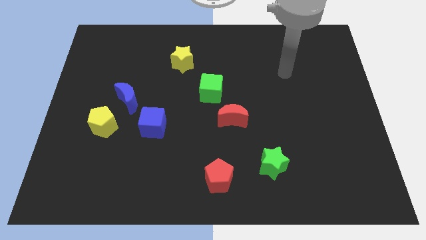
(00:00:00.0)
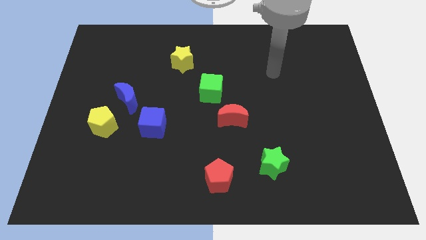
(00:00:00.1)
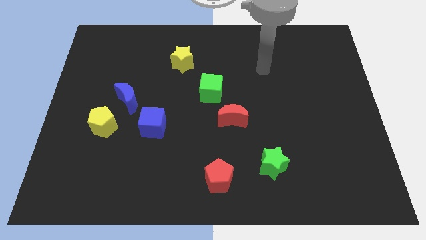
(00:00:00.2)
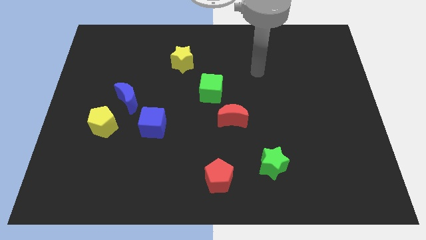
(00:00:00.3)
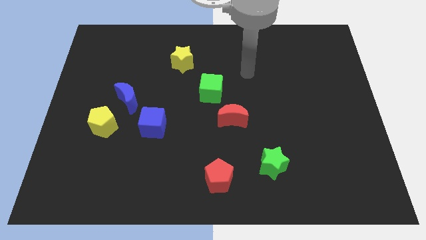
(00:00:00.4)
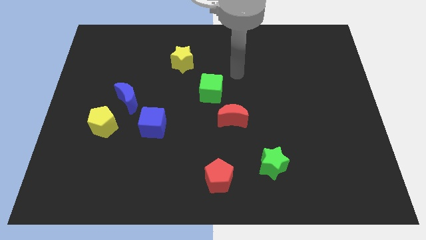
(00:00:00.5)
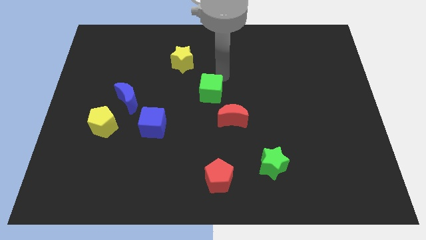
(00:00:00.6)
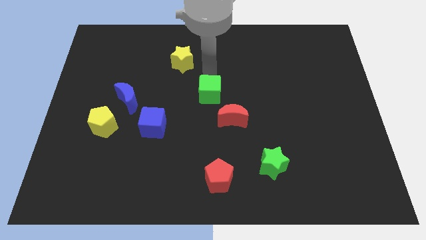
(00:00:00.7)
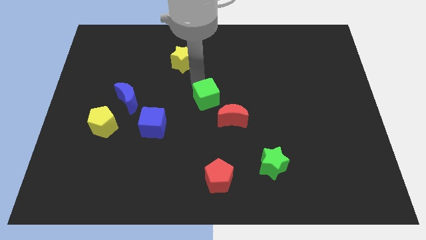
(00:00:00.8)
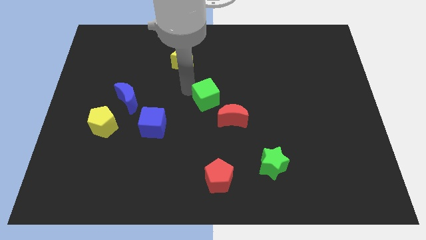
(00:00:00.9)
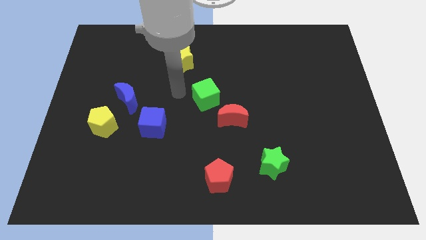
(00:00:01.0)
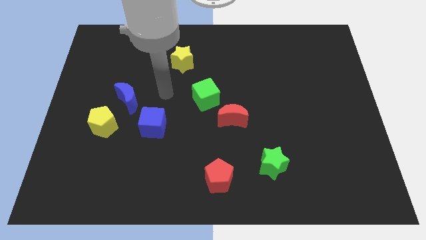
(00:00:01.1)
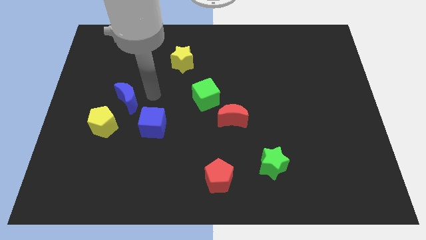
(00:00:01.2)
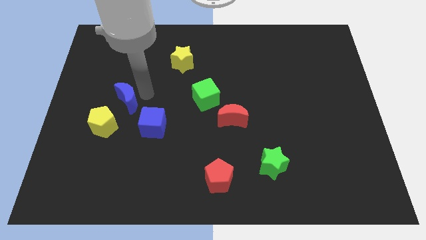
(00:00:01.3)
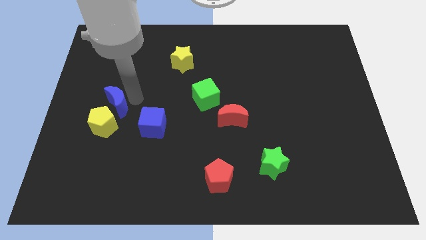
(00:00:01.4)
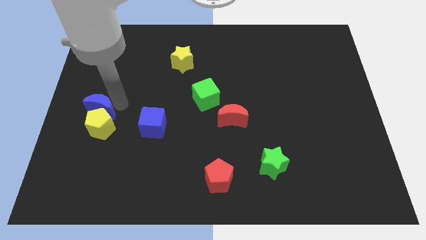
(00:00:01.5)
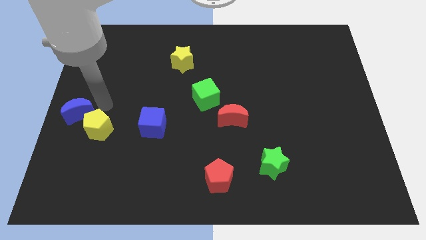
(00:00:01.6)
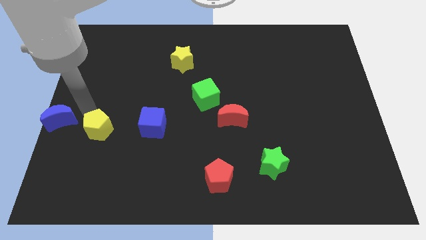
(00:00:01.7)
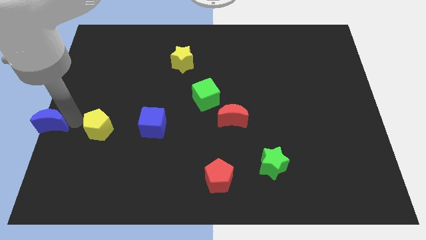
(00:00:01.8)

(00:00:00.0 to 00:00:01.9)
move the yellow pentagon away from the blue moon

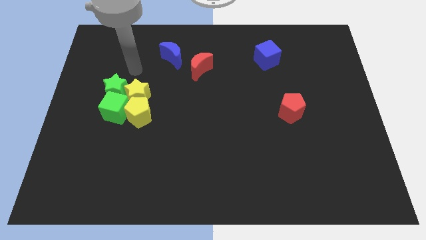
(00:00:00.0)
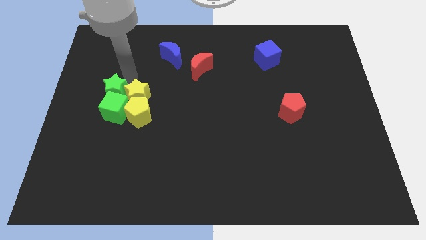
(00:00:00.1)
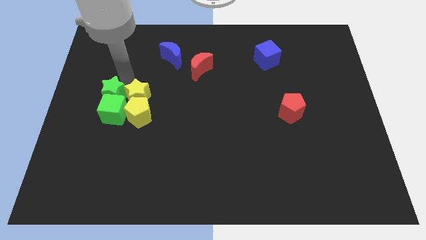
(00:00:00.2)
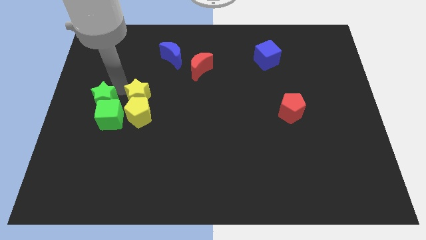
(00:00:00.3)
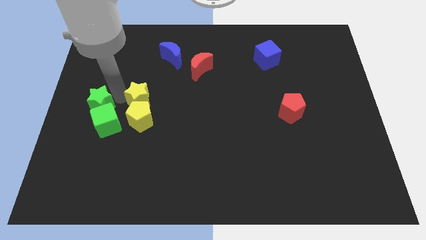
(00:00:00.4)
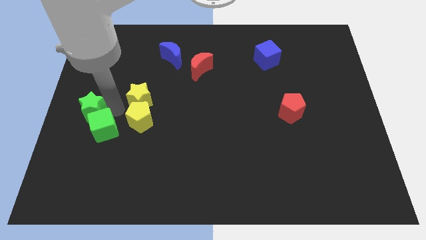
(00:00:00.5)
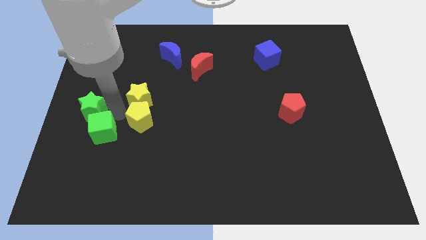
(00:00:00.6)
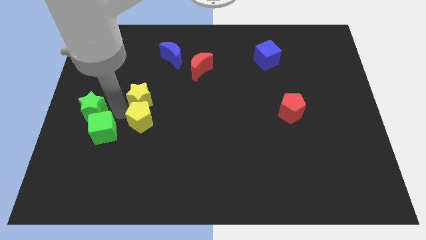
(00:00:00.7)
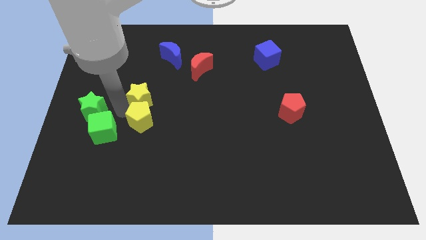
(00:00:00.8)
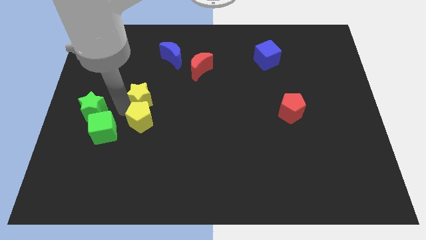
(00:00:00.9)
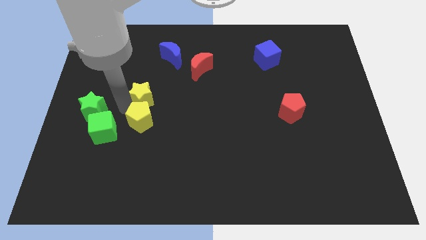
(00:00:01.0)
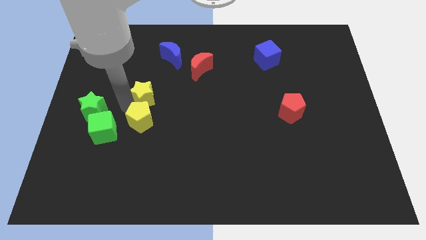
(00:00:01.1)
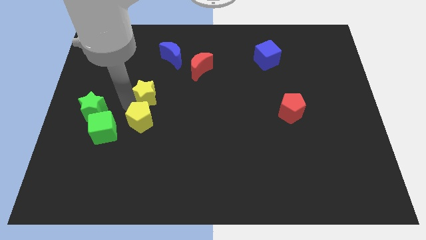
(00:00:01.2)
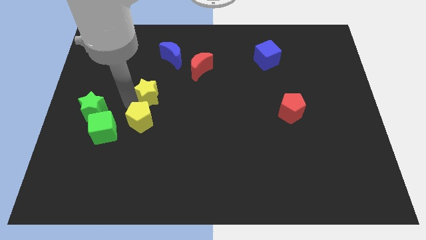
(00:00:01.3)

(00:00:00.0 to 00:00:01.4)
pull the yellow star apart from the clump

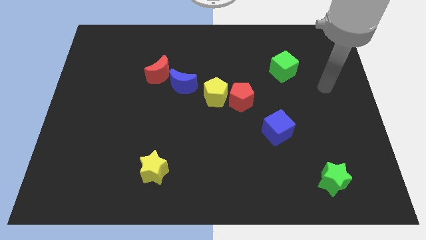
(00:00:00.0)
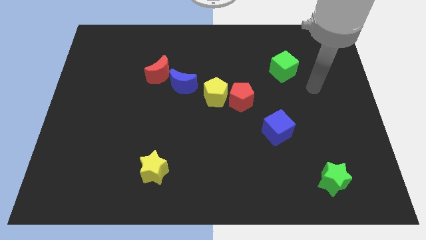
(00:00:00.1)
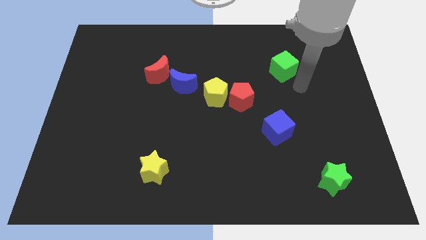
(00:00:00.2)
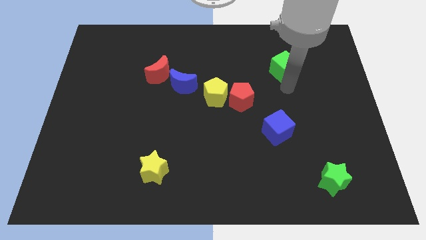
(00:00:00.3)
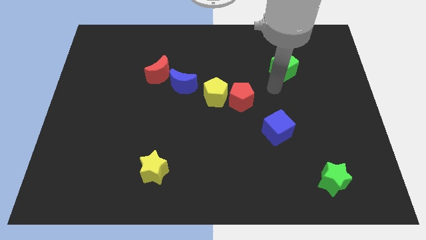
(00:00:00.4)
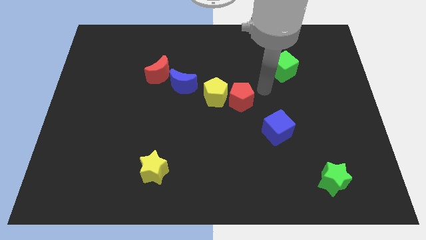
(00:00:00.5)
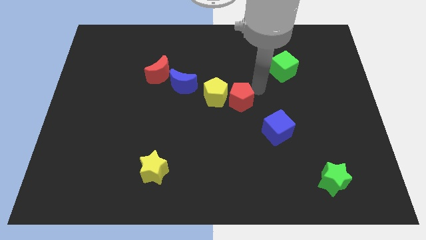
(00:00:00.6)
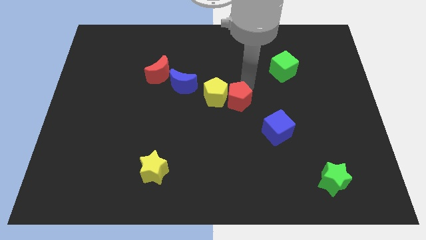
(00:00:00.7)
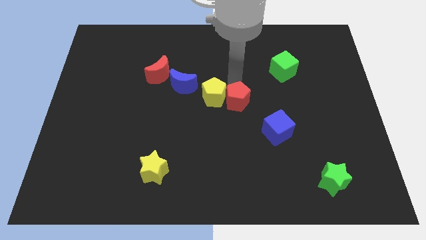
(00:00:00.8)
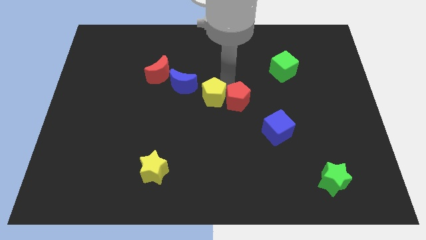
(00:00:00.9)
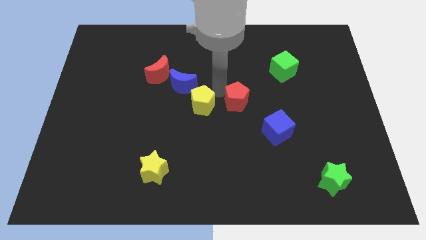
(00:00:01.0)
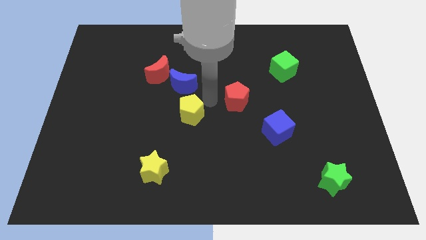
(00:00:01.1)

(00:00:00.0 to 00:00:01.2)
separate the red pentagon from the yellow pentagon

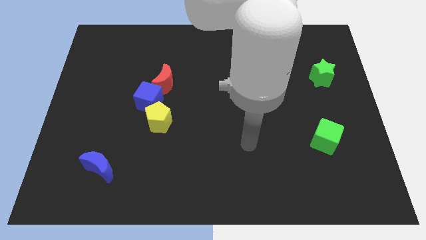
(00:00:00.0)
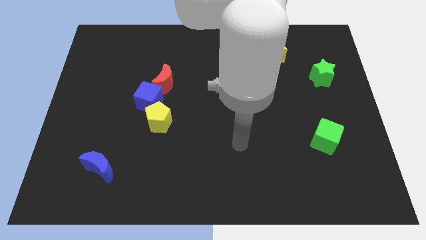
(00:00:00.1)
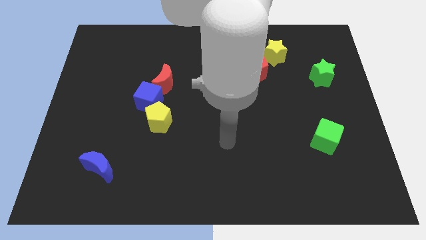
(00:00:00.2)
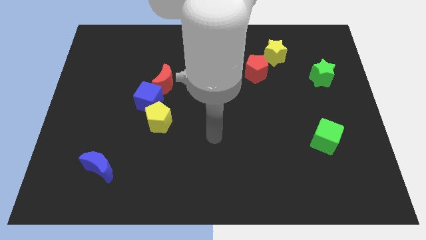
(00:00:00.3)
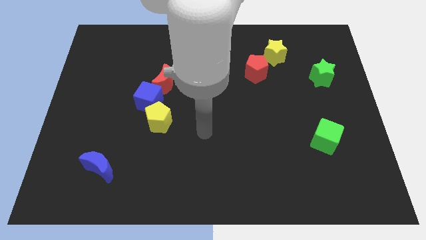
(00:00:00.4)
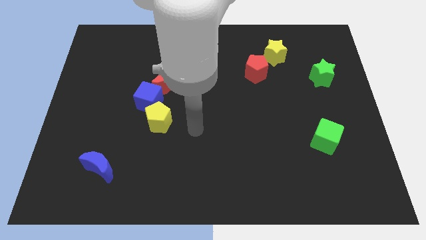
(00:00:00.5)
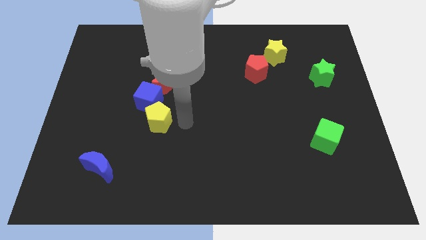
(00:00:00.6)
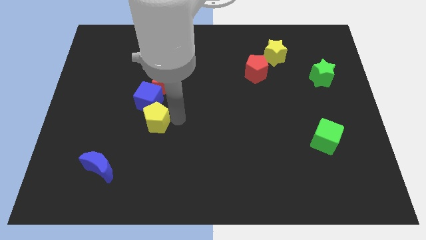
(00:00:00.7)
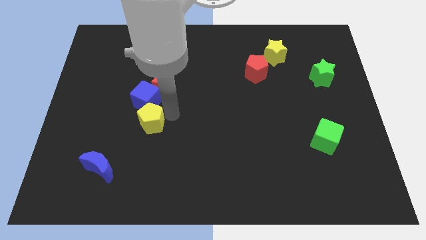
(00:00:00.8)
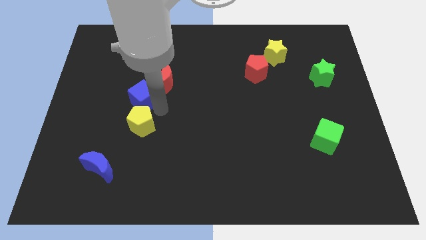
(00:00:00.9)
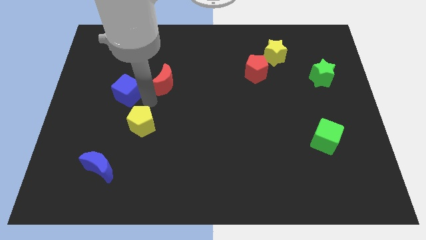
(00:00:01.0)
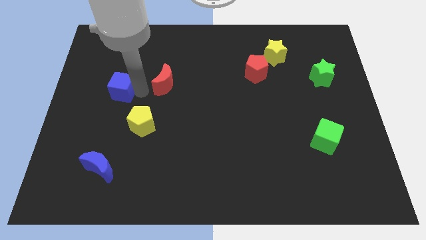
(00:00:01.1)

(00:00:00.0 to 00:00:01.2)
pull the red moon apart from the blue cube

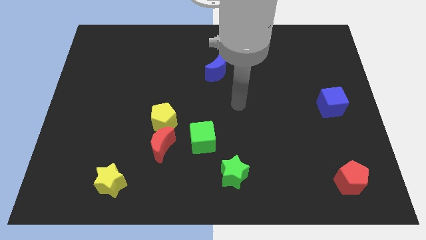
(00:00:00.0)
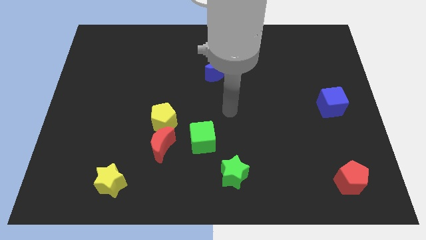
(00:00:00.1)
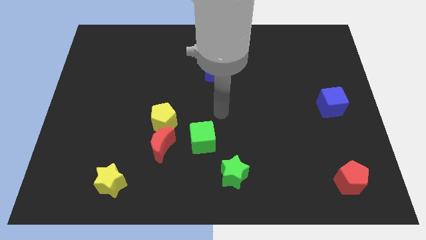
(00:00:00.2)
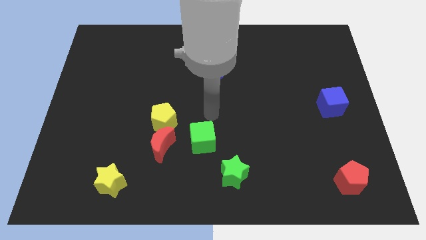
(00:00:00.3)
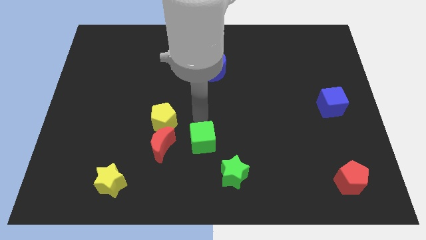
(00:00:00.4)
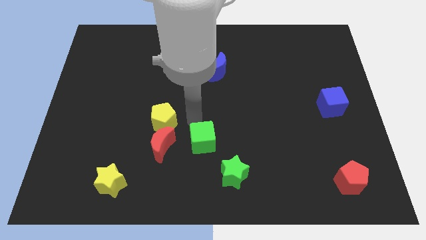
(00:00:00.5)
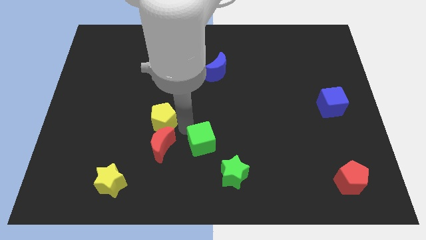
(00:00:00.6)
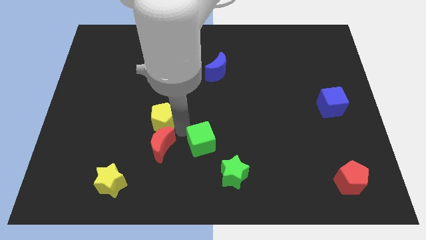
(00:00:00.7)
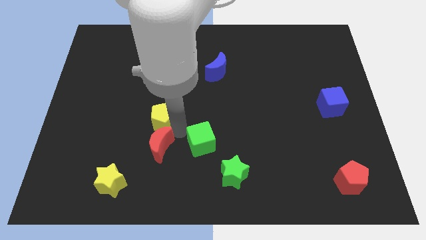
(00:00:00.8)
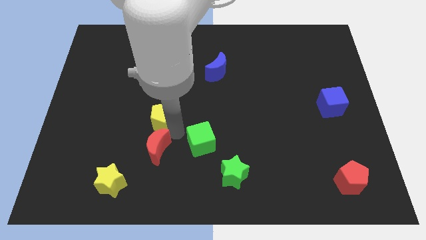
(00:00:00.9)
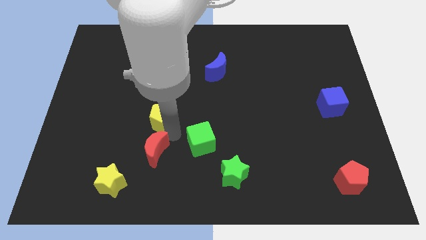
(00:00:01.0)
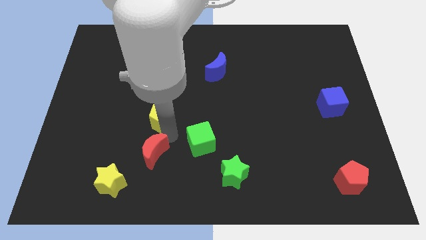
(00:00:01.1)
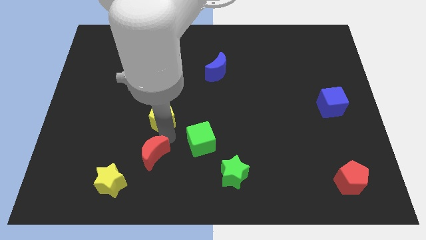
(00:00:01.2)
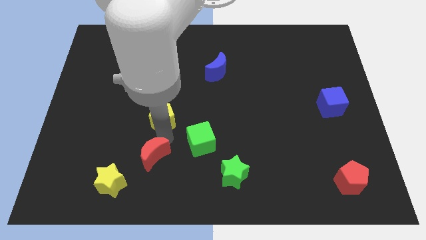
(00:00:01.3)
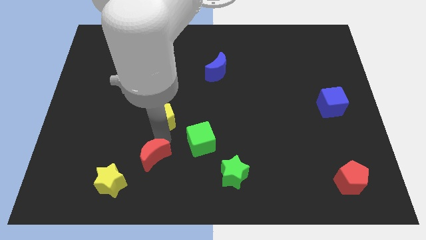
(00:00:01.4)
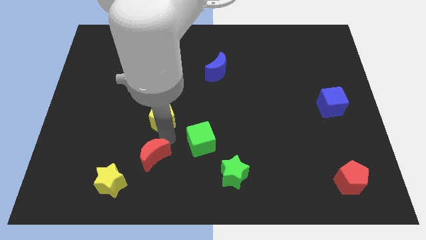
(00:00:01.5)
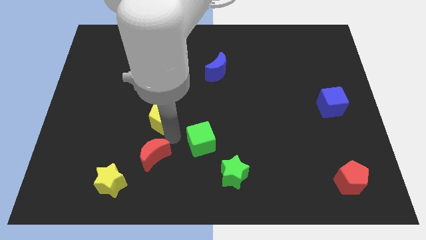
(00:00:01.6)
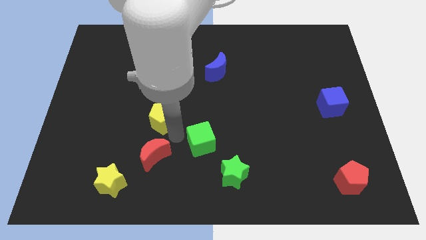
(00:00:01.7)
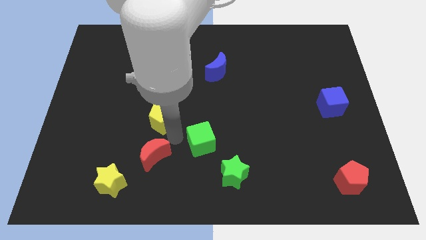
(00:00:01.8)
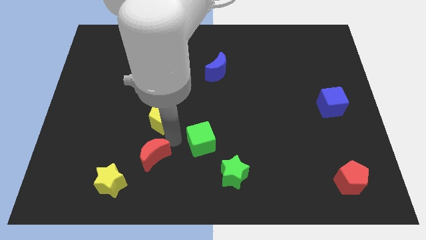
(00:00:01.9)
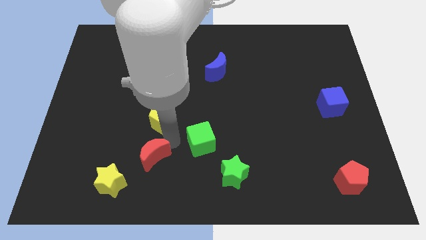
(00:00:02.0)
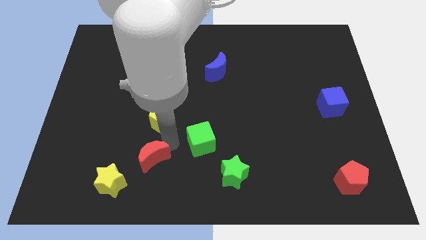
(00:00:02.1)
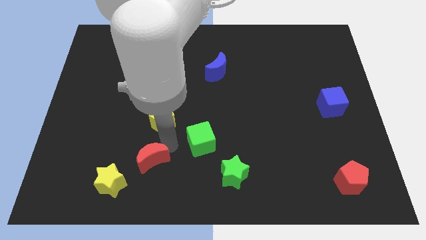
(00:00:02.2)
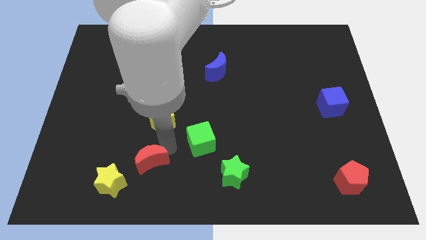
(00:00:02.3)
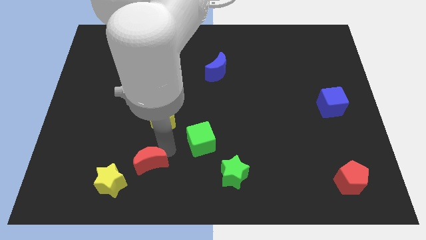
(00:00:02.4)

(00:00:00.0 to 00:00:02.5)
separate the red moon from the yellow pentagon and green cube

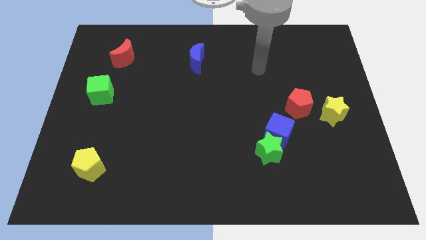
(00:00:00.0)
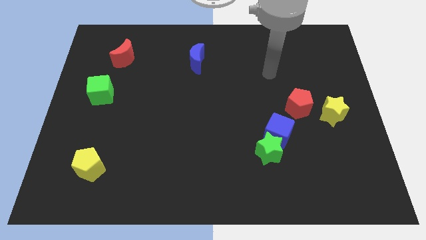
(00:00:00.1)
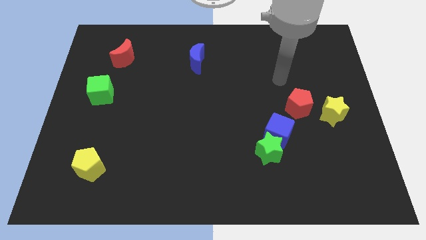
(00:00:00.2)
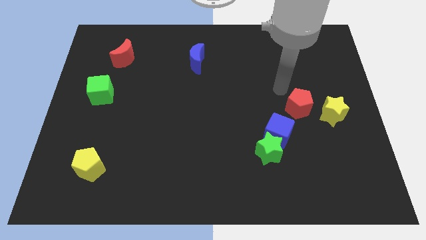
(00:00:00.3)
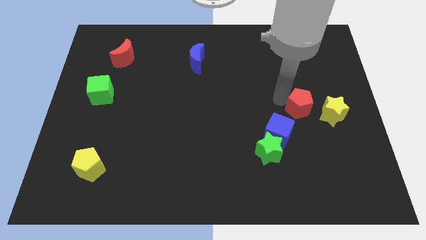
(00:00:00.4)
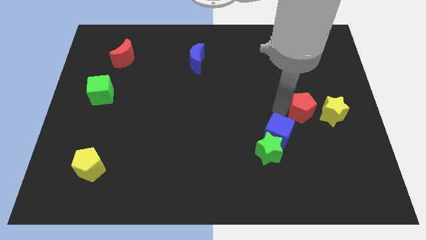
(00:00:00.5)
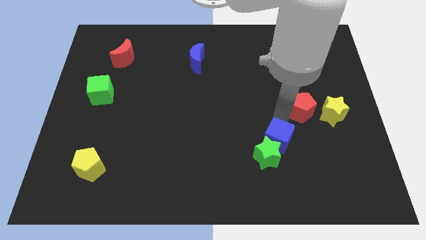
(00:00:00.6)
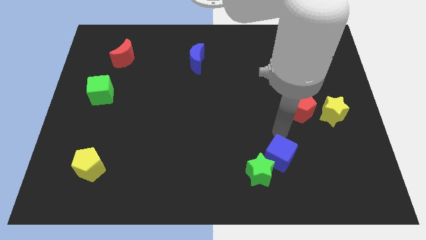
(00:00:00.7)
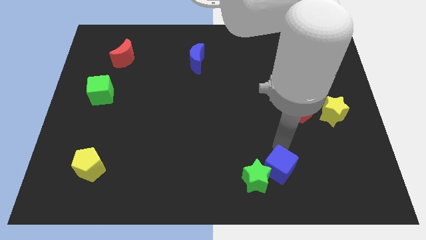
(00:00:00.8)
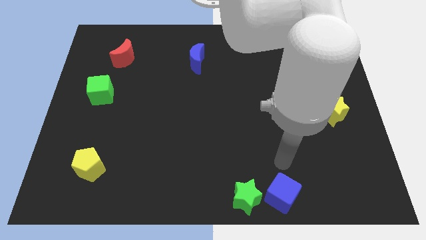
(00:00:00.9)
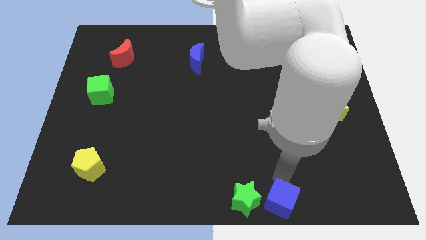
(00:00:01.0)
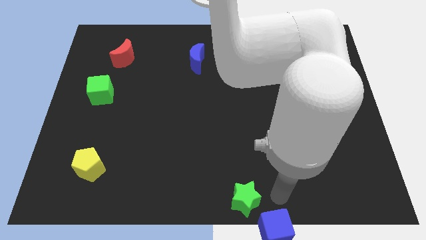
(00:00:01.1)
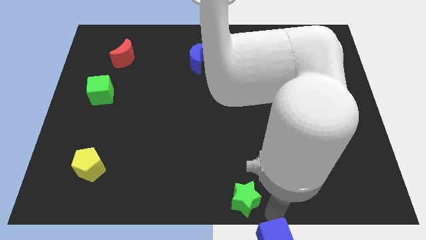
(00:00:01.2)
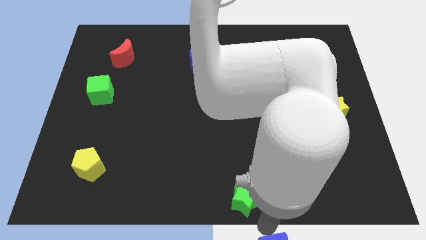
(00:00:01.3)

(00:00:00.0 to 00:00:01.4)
separate the green star from the blue cube
